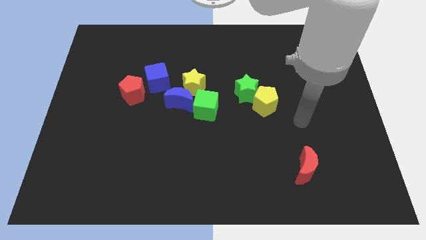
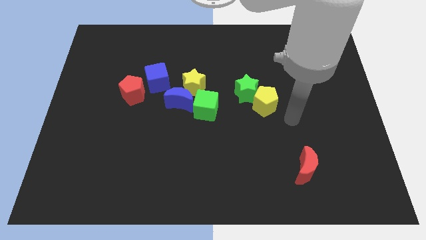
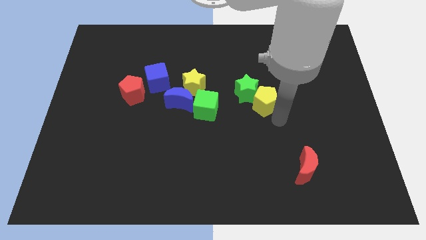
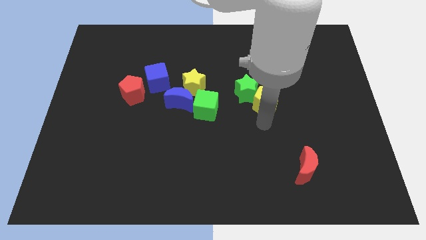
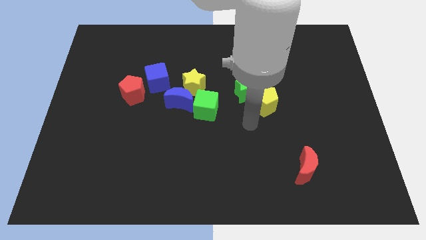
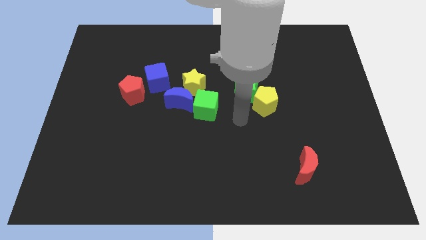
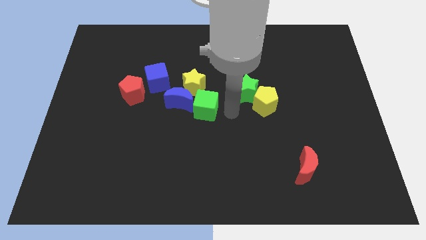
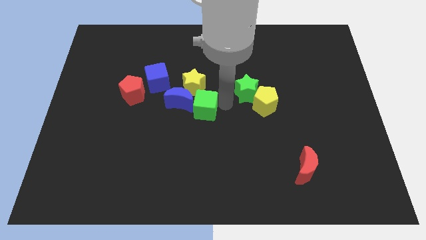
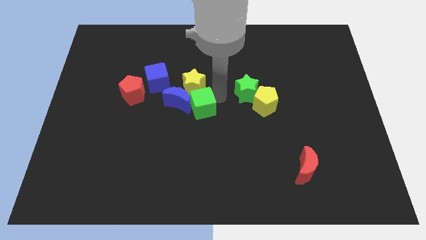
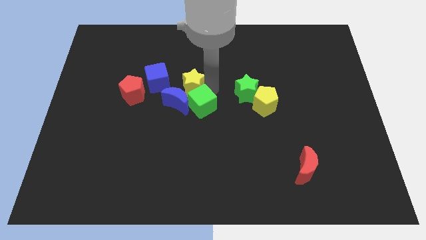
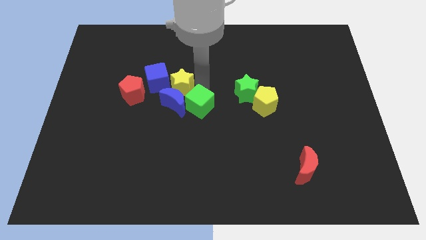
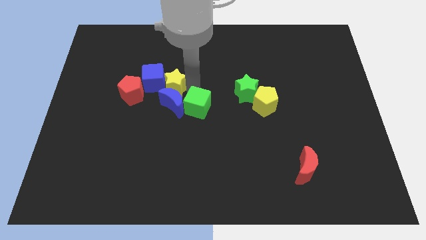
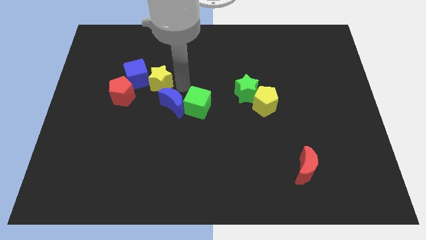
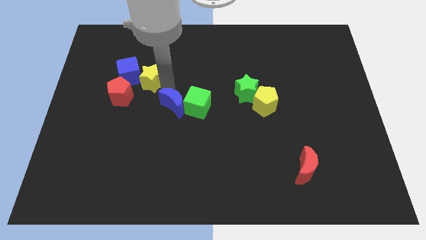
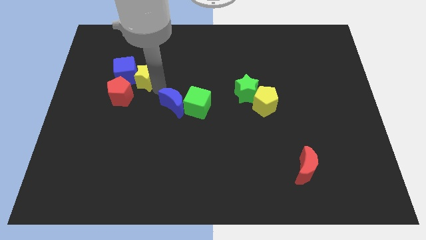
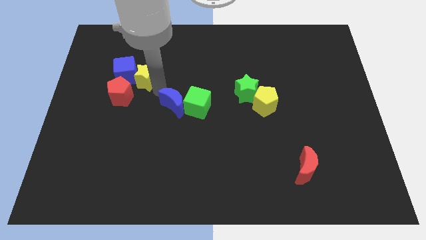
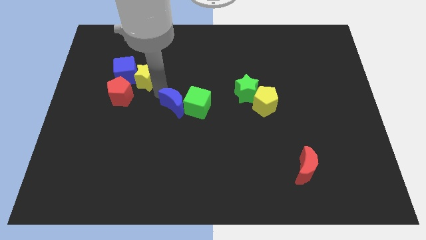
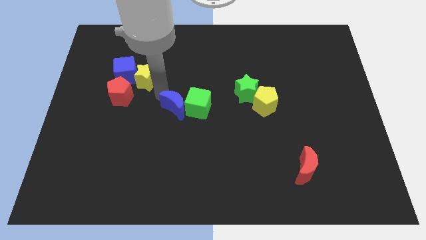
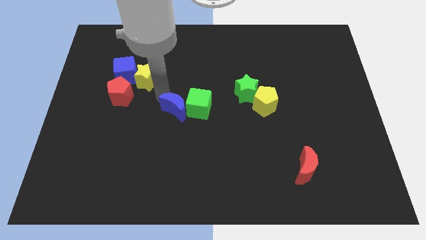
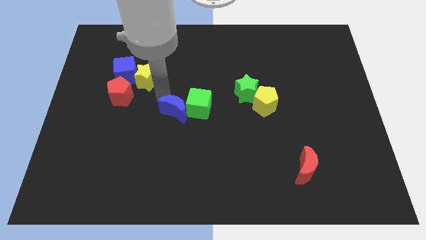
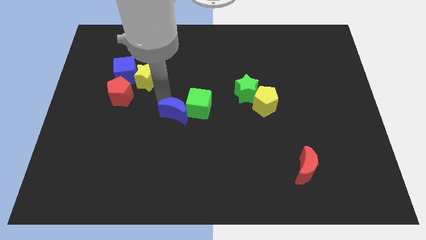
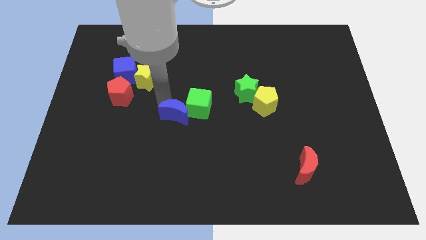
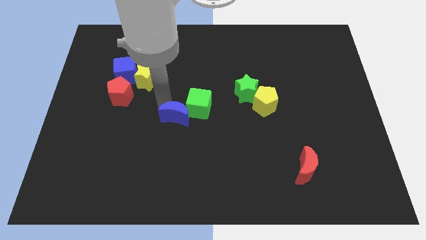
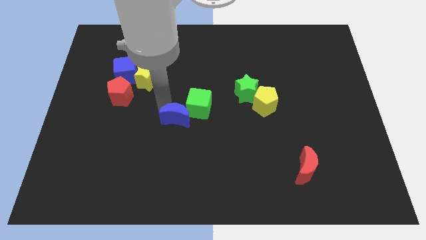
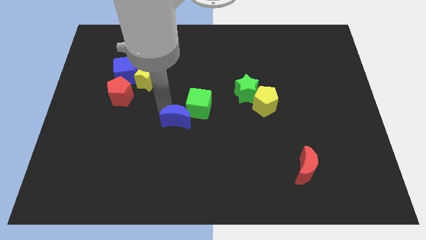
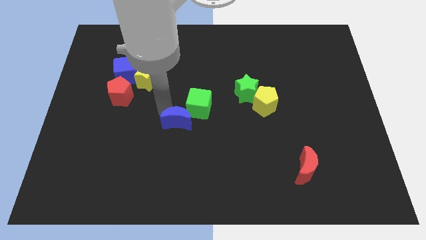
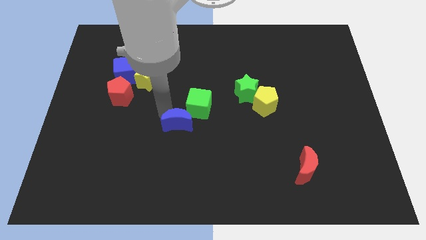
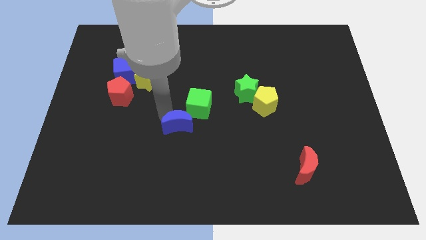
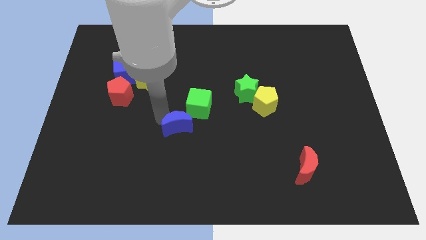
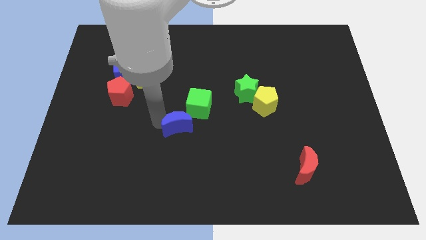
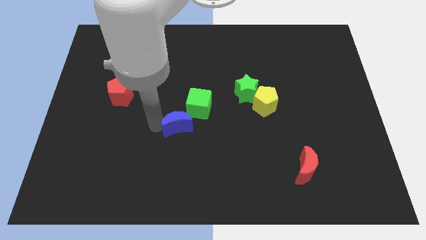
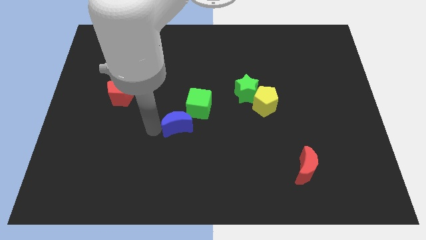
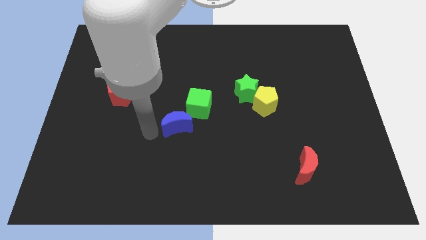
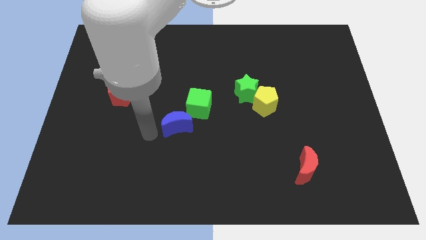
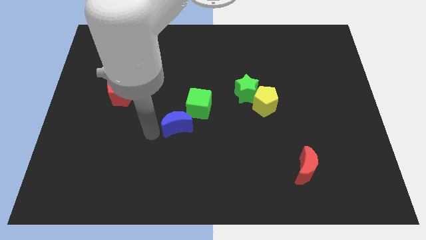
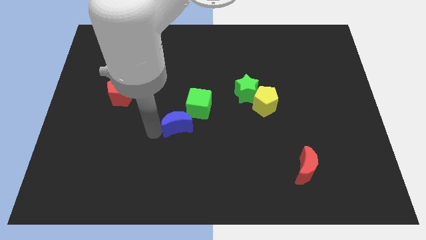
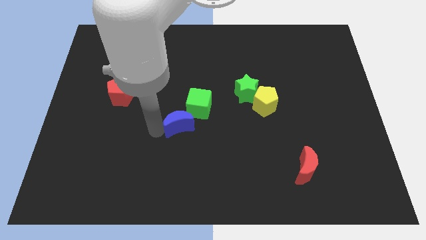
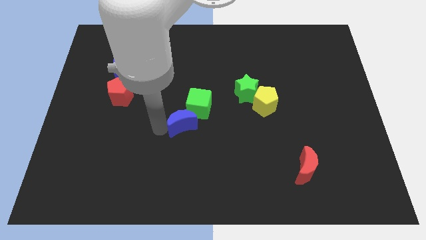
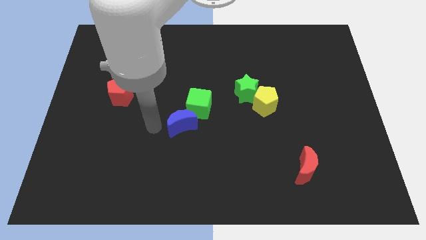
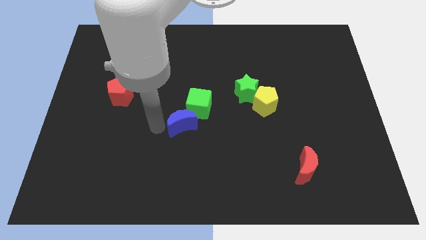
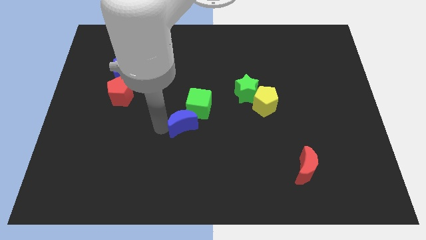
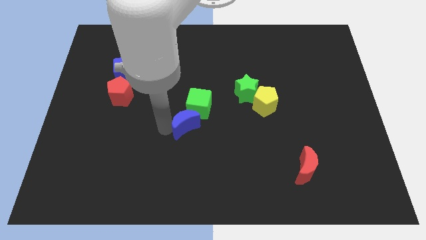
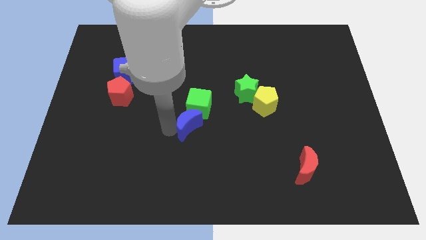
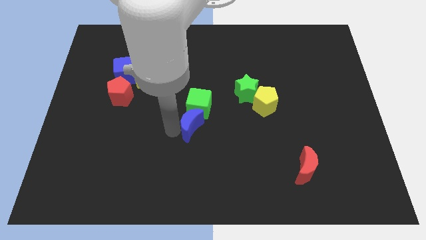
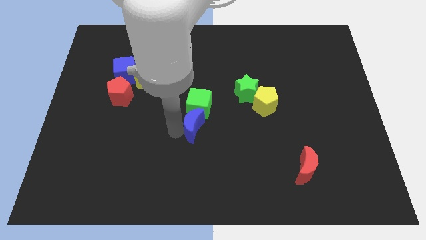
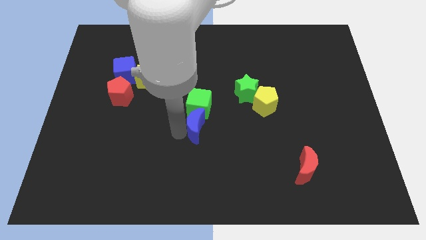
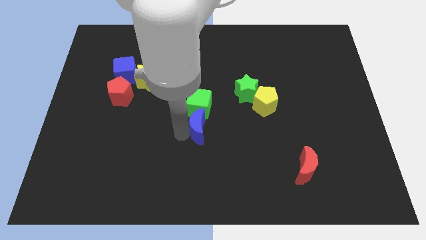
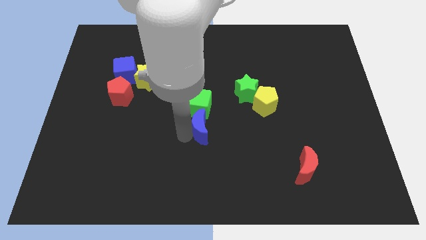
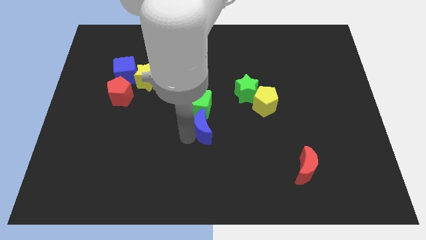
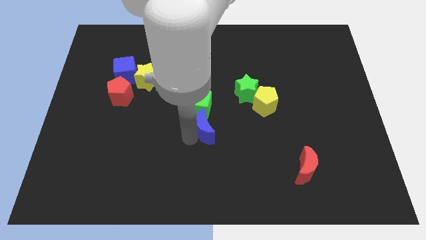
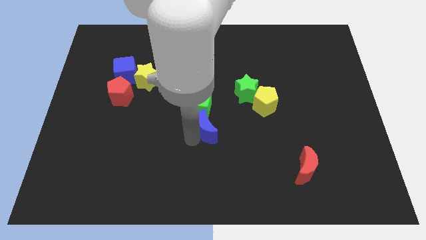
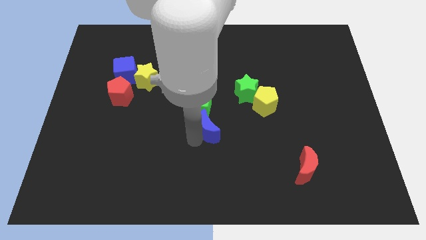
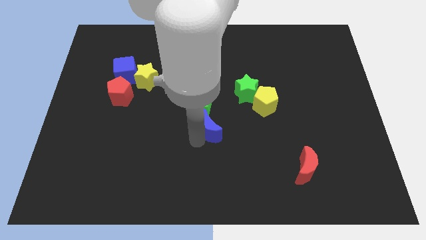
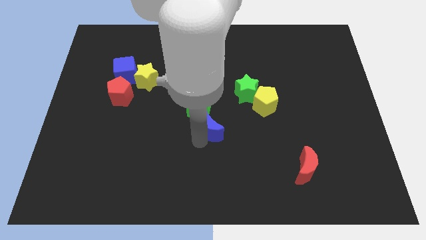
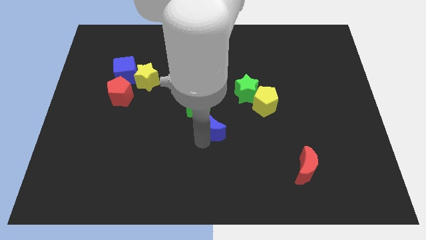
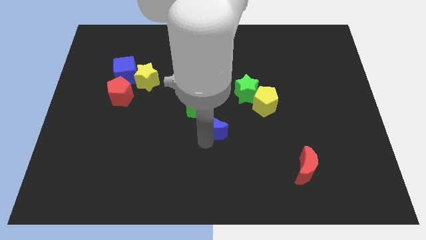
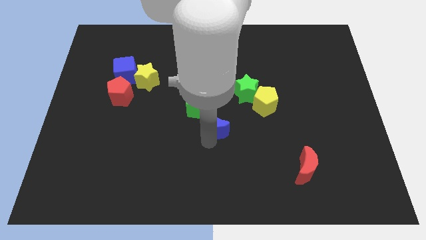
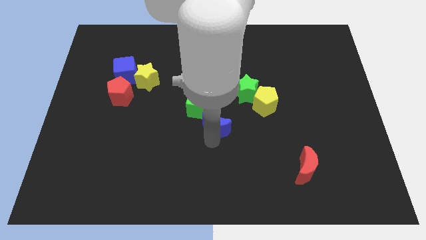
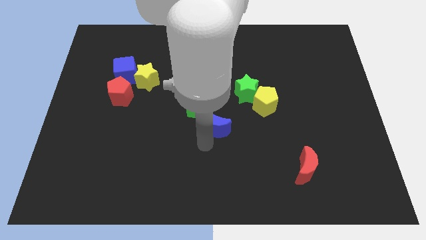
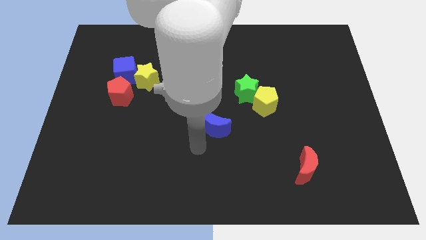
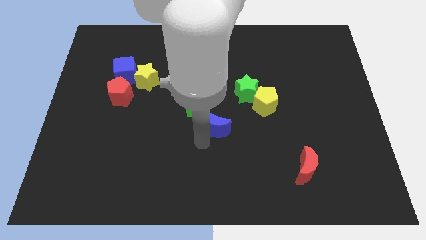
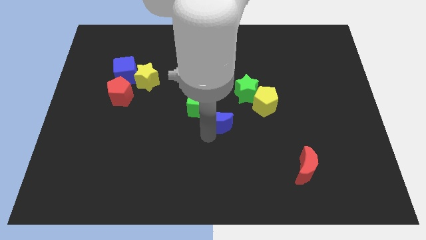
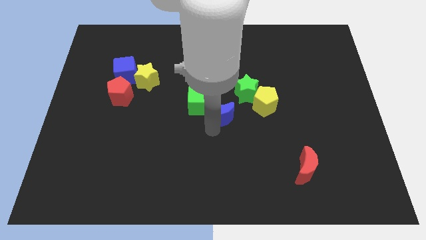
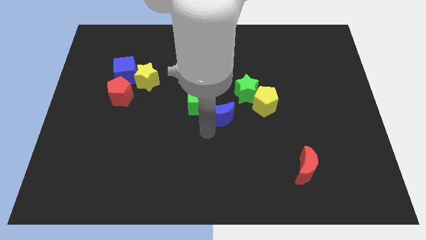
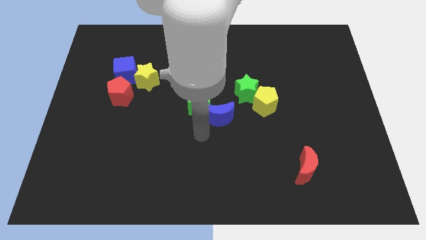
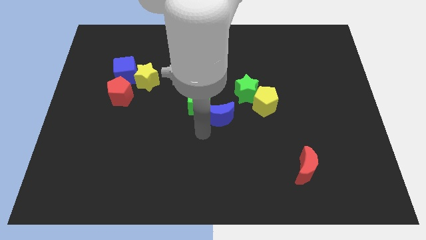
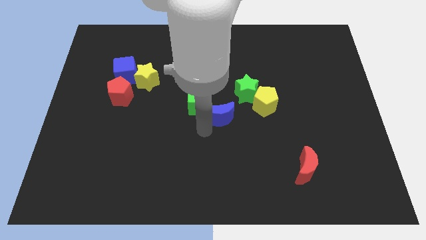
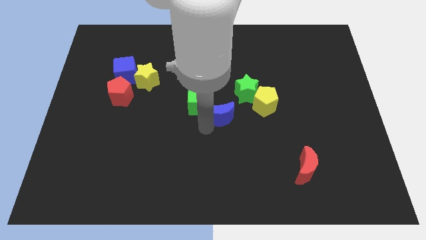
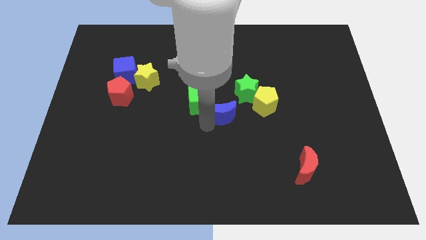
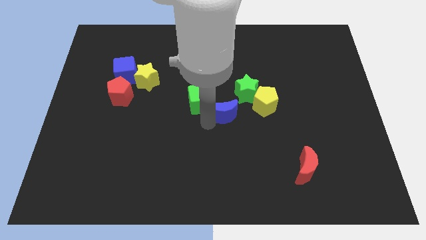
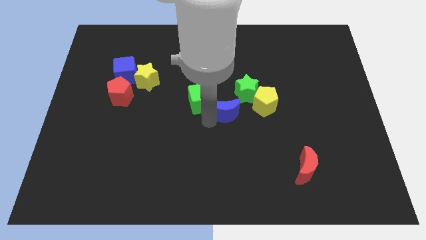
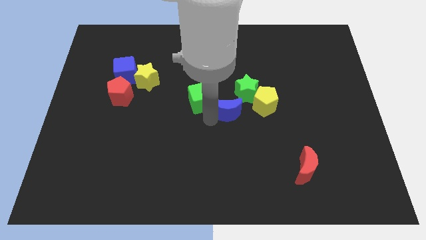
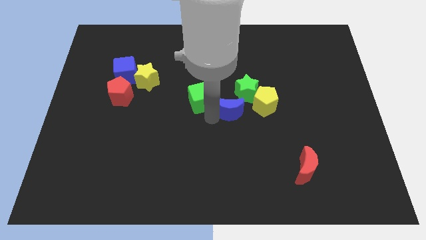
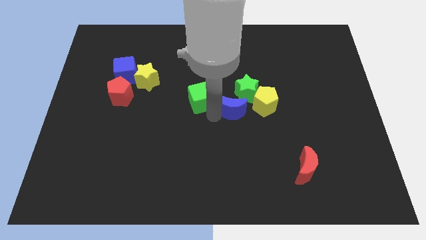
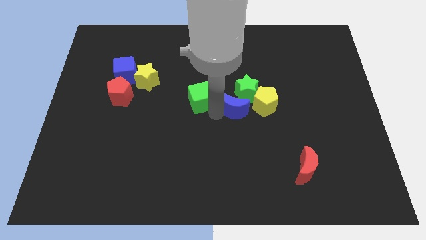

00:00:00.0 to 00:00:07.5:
slide the blue moon next to the green star
